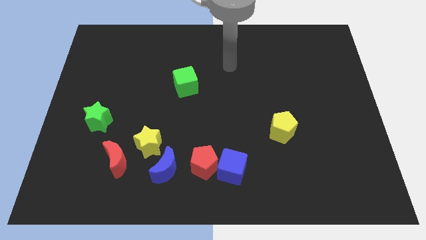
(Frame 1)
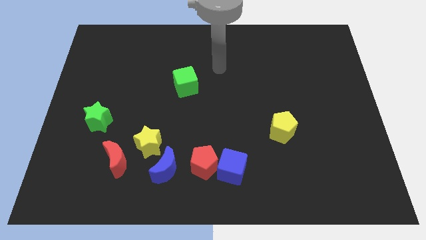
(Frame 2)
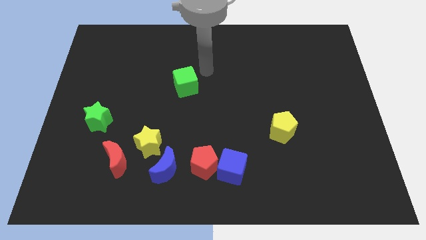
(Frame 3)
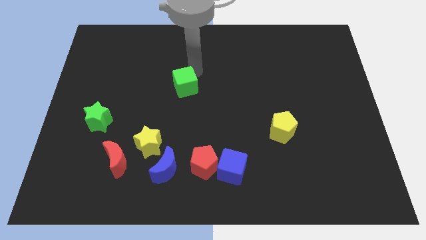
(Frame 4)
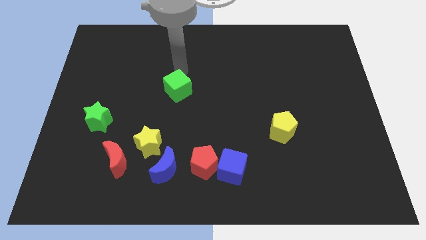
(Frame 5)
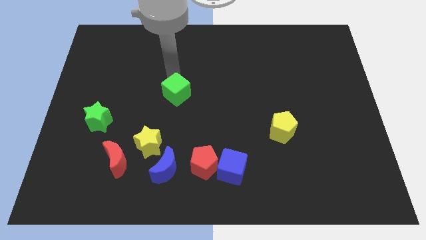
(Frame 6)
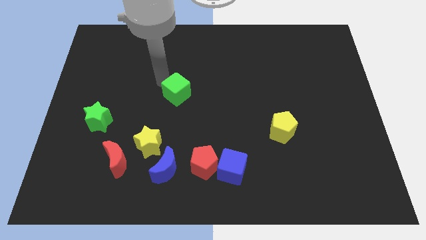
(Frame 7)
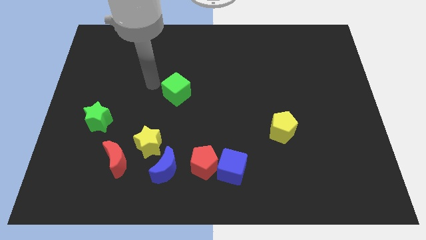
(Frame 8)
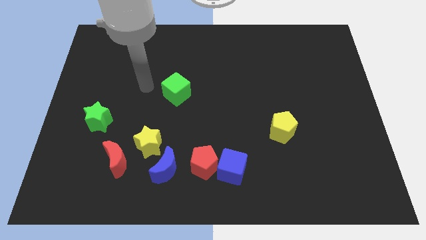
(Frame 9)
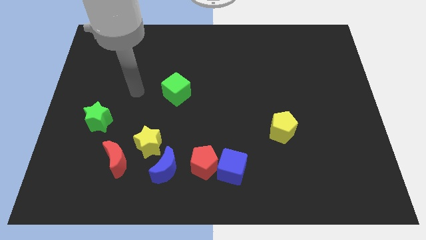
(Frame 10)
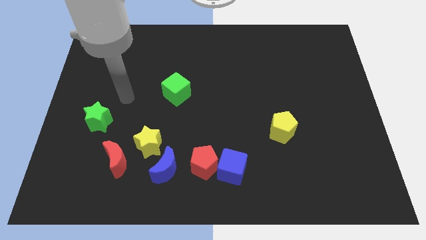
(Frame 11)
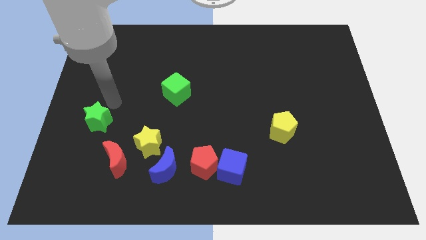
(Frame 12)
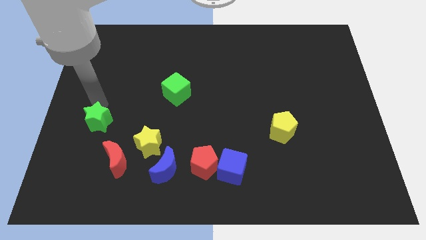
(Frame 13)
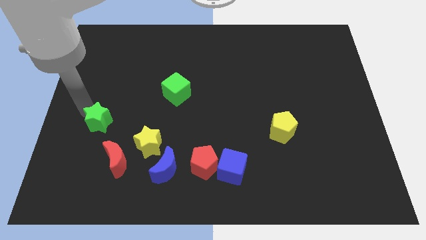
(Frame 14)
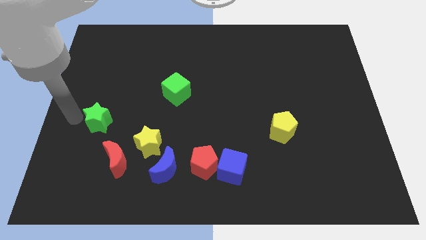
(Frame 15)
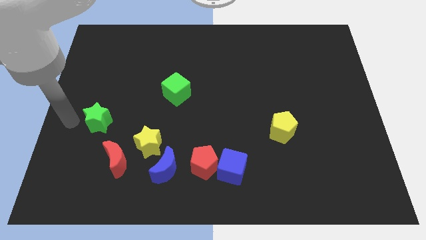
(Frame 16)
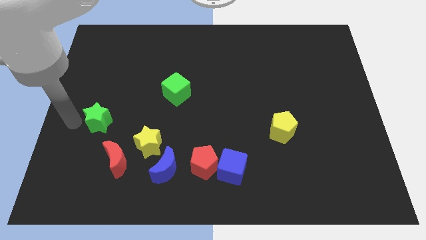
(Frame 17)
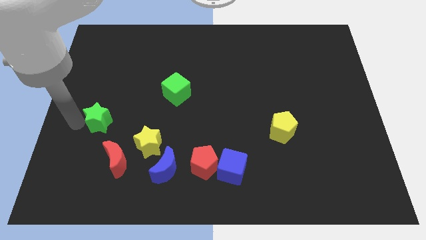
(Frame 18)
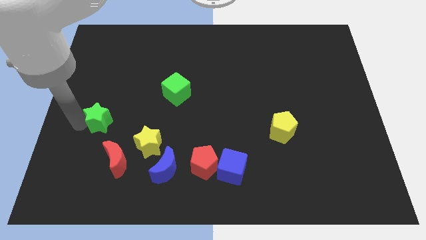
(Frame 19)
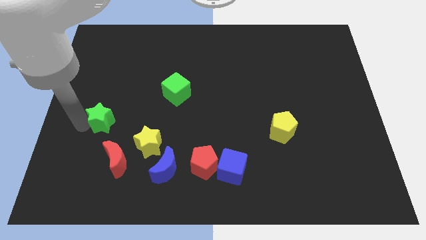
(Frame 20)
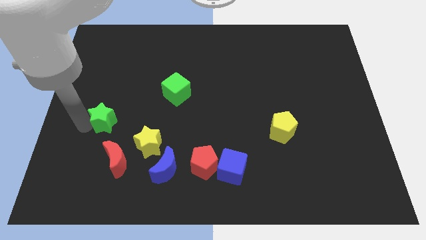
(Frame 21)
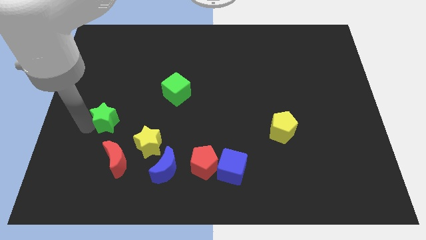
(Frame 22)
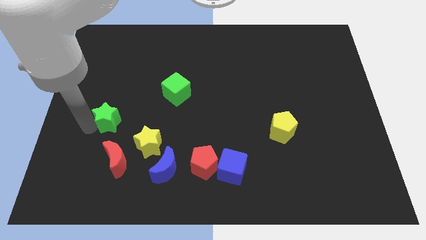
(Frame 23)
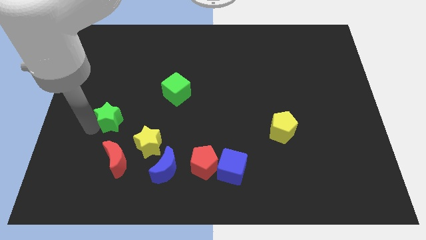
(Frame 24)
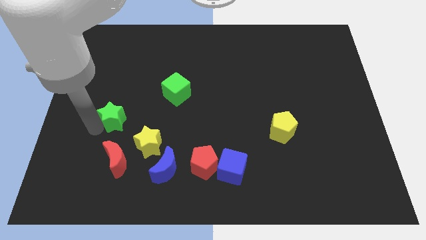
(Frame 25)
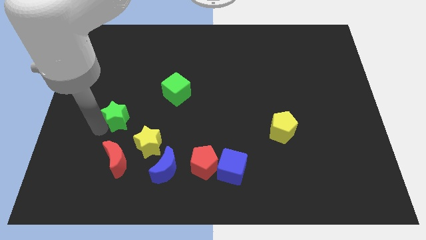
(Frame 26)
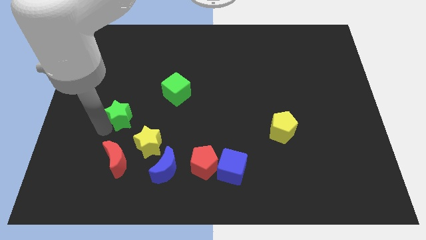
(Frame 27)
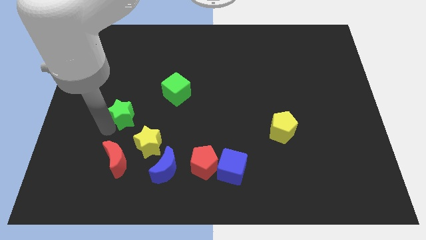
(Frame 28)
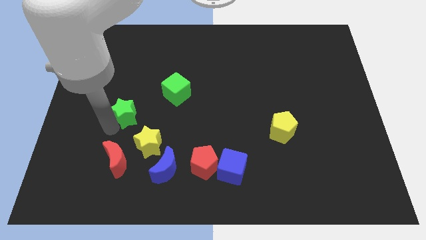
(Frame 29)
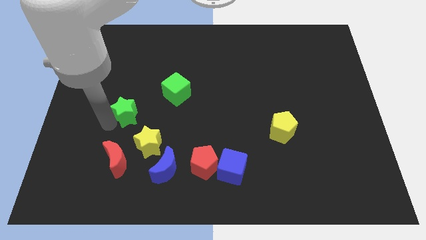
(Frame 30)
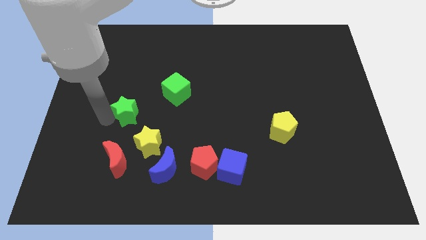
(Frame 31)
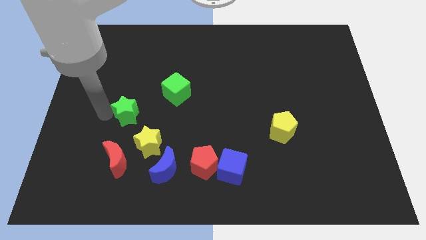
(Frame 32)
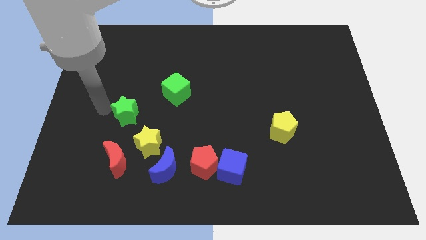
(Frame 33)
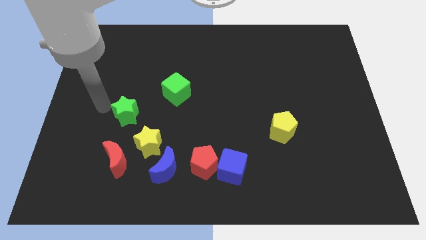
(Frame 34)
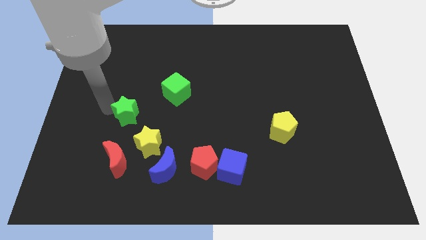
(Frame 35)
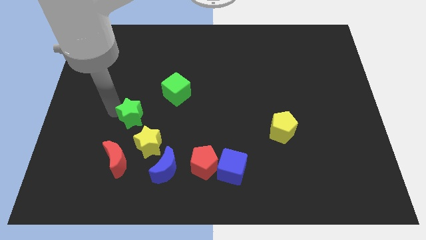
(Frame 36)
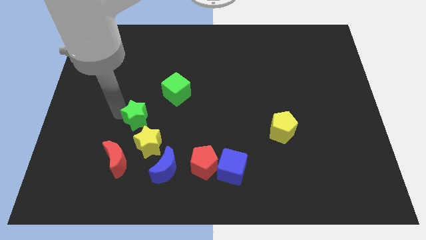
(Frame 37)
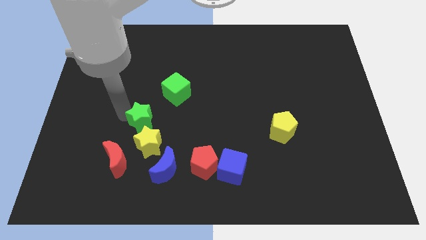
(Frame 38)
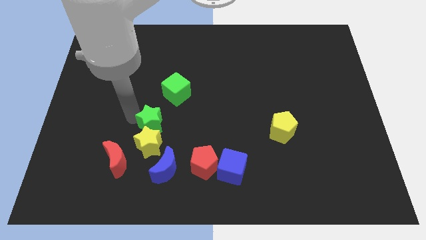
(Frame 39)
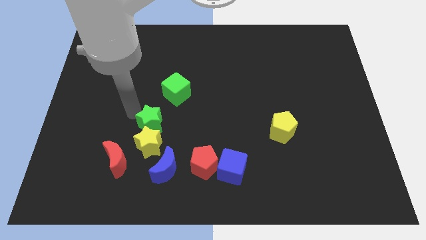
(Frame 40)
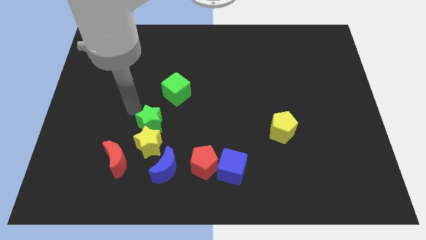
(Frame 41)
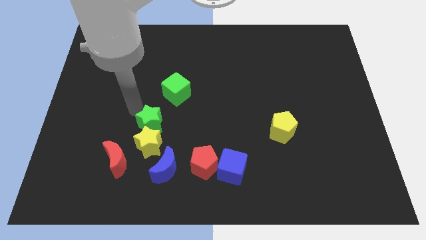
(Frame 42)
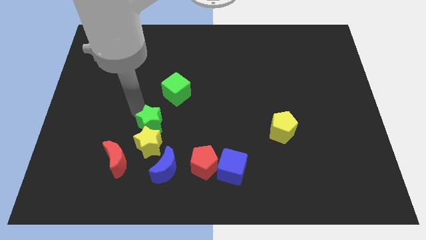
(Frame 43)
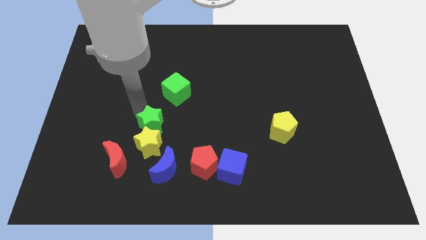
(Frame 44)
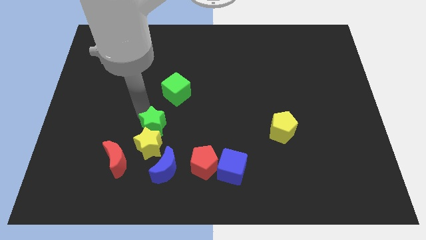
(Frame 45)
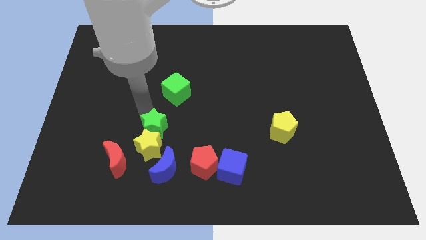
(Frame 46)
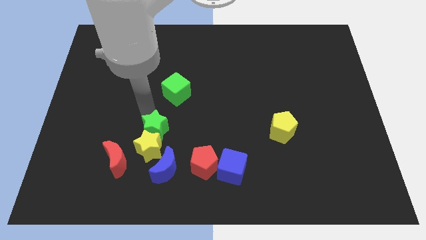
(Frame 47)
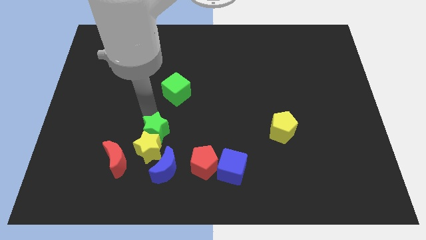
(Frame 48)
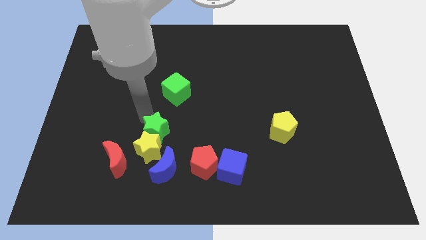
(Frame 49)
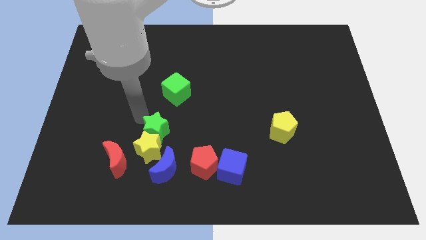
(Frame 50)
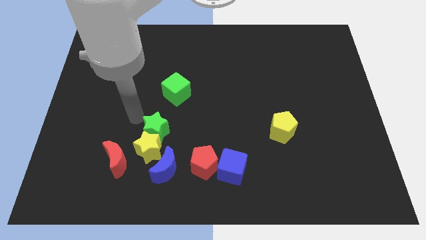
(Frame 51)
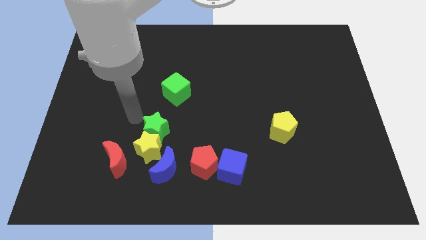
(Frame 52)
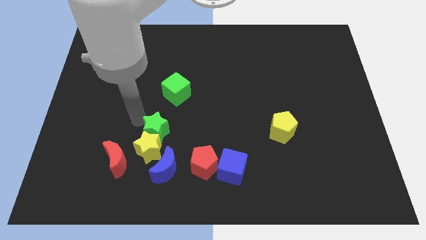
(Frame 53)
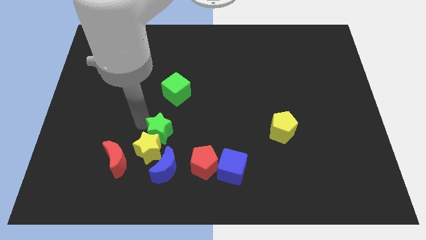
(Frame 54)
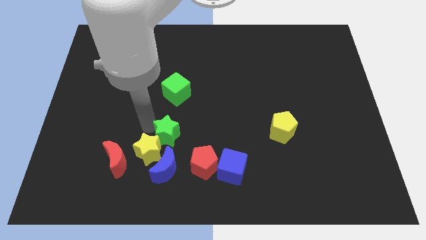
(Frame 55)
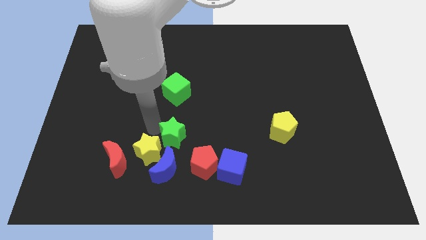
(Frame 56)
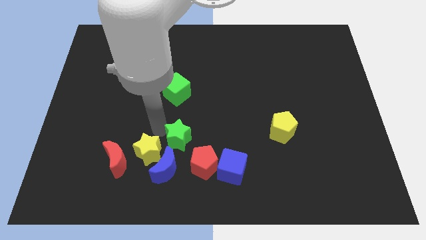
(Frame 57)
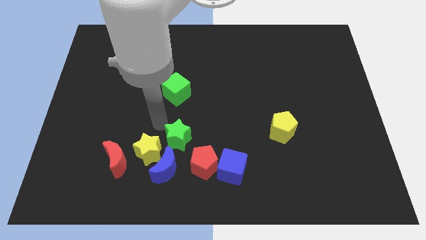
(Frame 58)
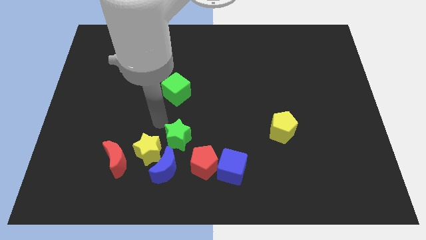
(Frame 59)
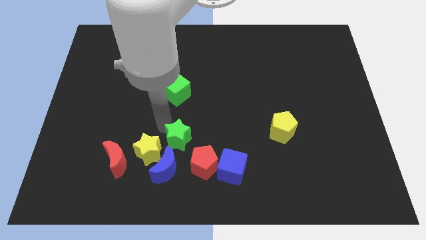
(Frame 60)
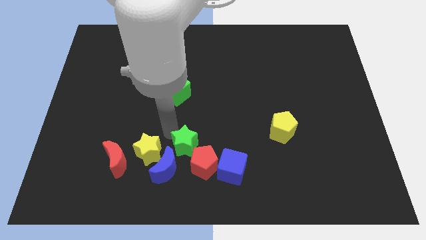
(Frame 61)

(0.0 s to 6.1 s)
slide the green star to the red pentagon

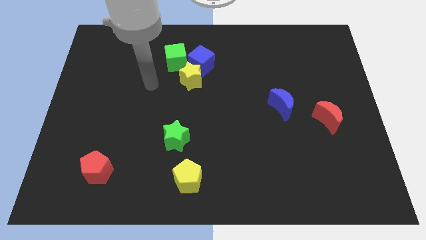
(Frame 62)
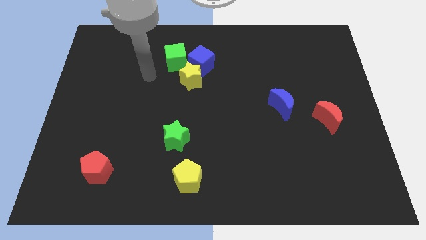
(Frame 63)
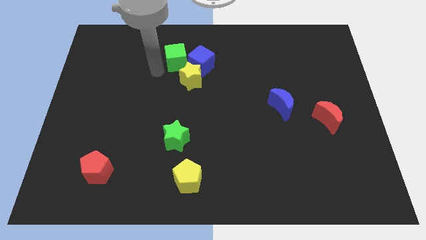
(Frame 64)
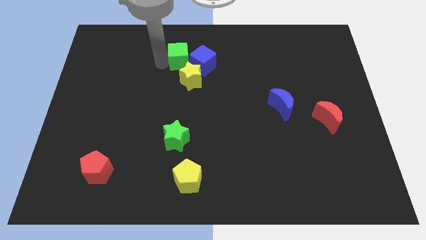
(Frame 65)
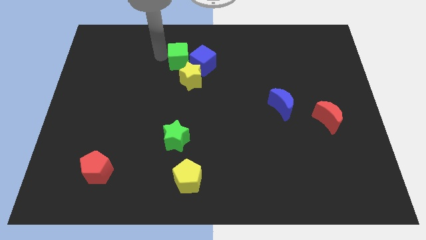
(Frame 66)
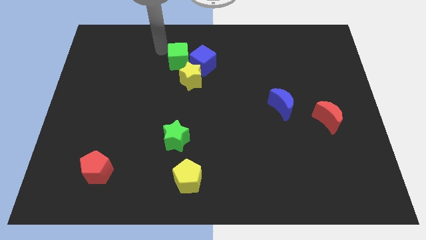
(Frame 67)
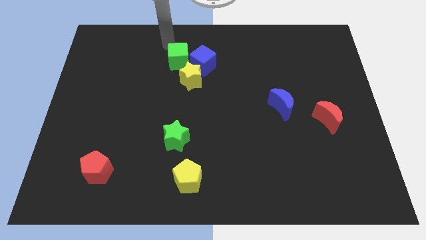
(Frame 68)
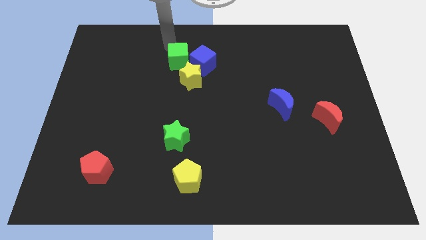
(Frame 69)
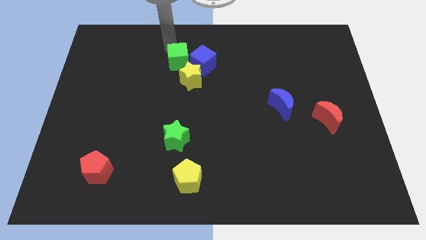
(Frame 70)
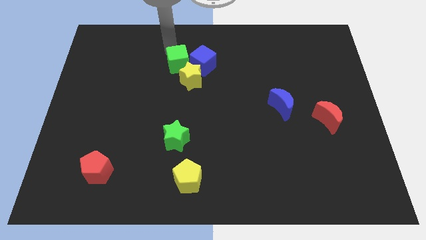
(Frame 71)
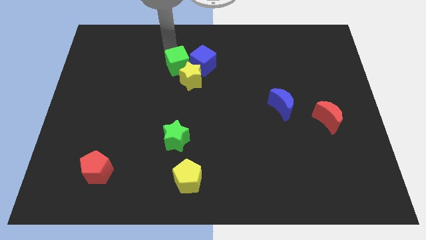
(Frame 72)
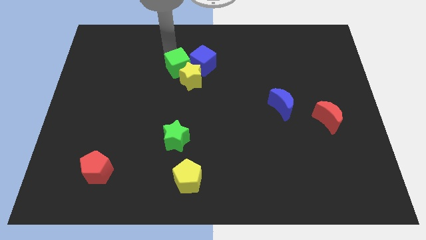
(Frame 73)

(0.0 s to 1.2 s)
move the green cube next to the yellow star
